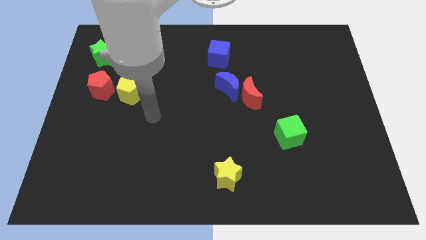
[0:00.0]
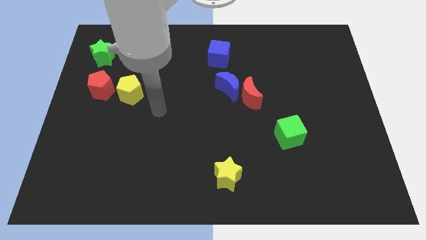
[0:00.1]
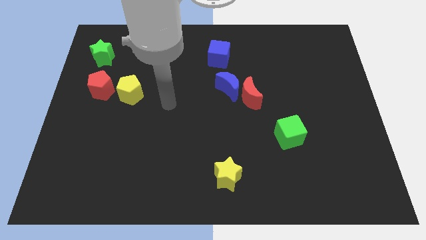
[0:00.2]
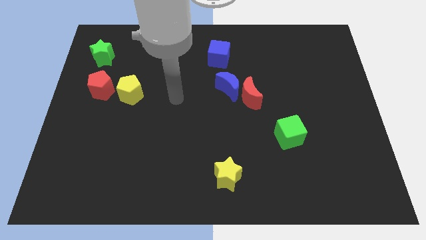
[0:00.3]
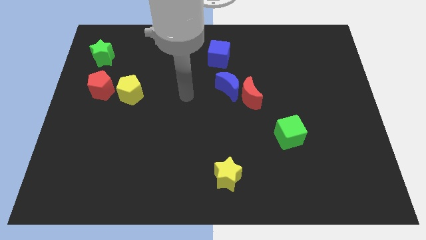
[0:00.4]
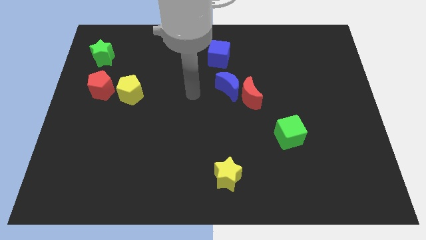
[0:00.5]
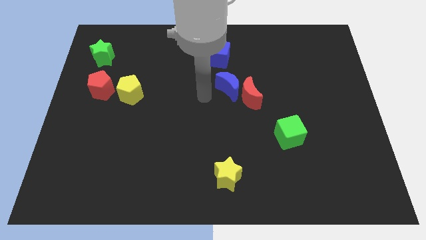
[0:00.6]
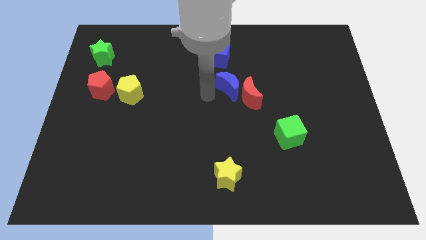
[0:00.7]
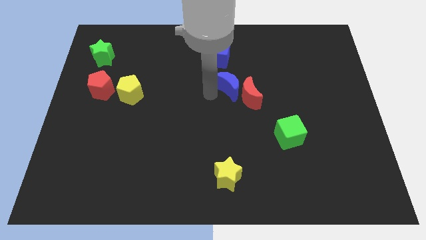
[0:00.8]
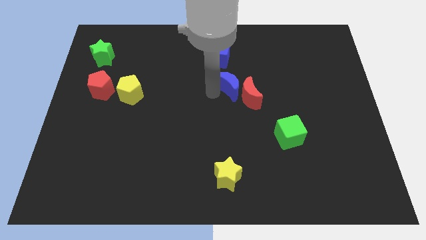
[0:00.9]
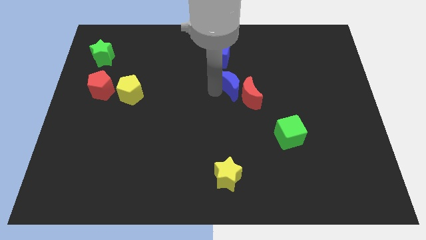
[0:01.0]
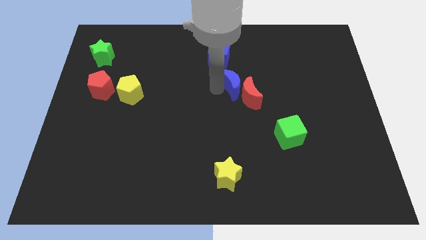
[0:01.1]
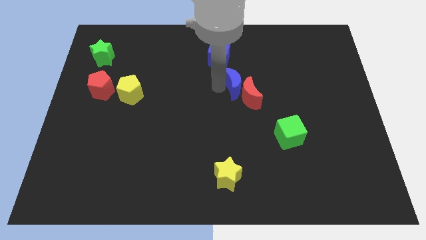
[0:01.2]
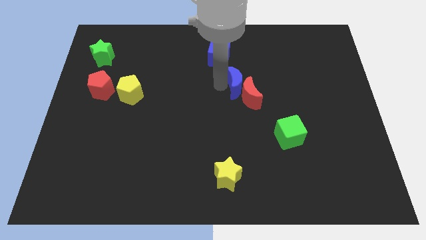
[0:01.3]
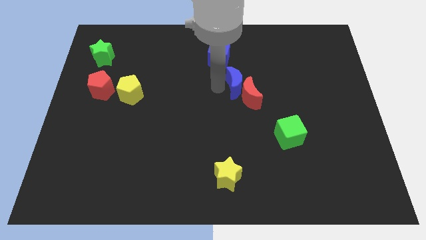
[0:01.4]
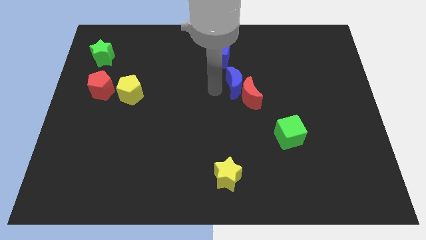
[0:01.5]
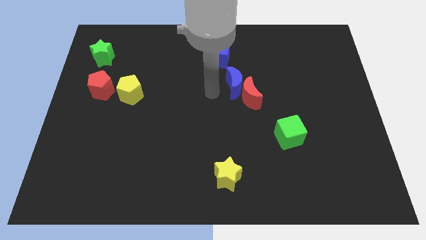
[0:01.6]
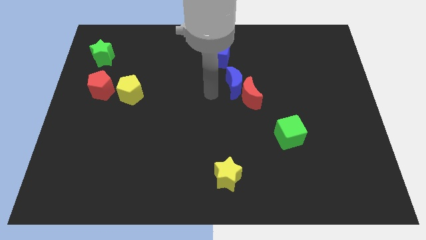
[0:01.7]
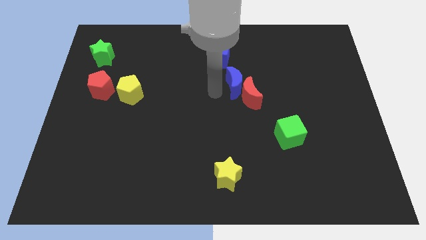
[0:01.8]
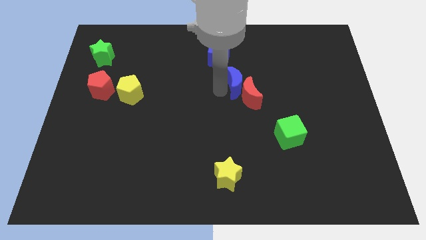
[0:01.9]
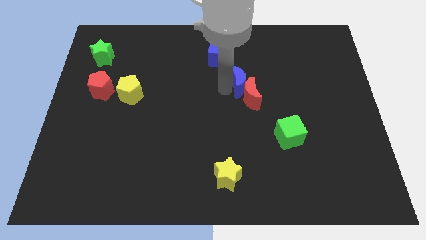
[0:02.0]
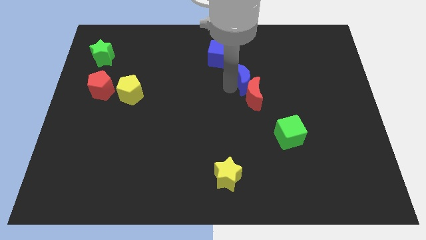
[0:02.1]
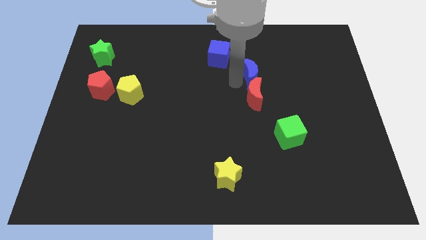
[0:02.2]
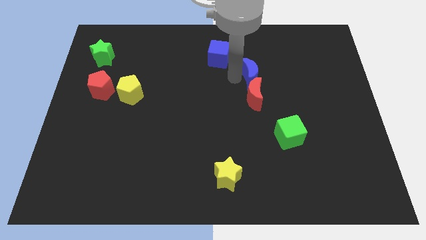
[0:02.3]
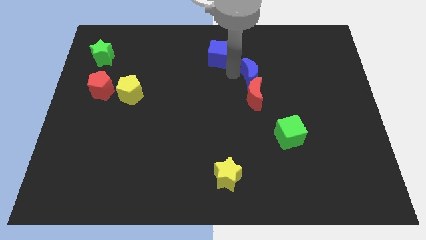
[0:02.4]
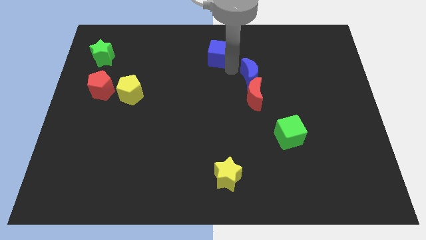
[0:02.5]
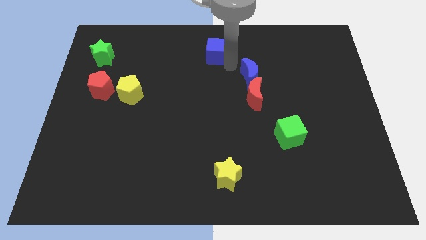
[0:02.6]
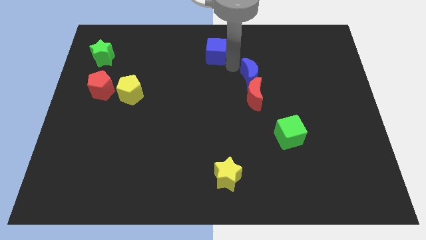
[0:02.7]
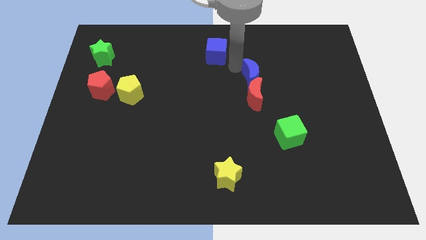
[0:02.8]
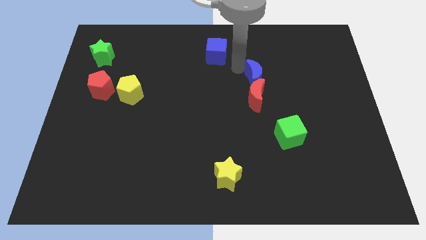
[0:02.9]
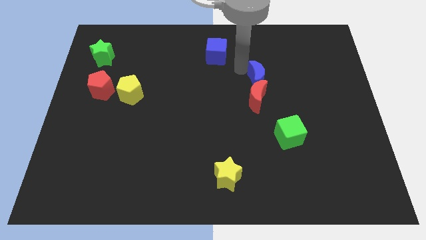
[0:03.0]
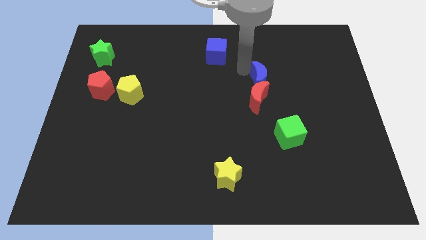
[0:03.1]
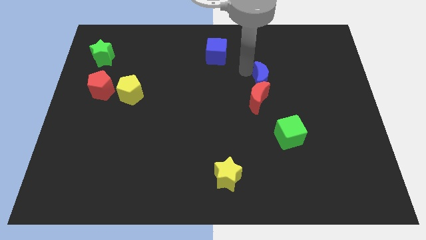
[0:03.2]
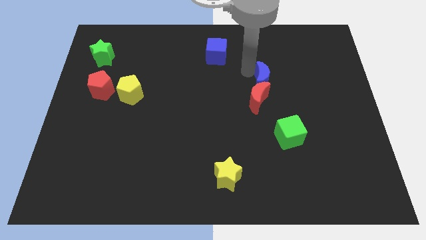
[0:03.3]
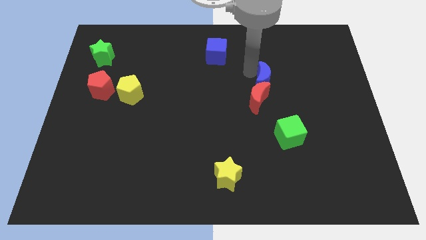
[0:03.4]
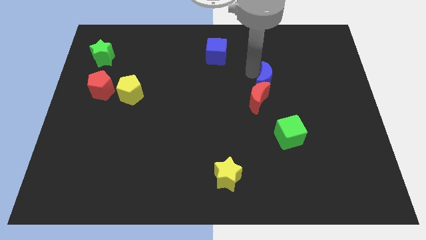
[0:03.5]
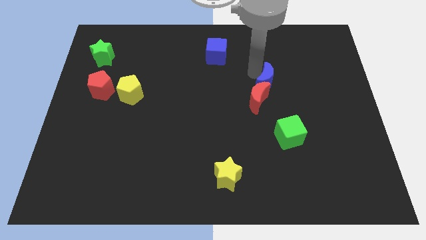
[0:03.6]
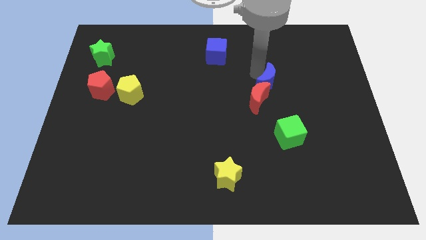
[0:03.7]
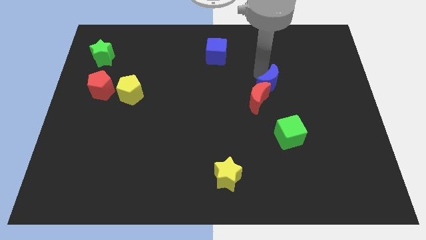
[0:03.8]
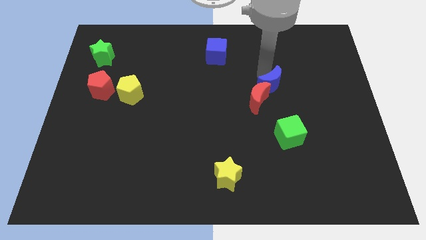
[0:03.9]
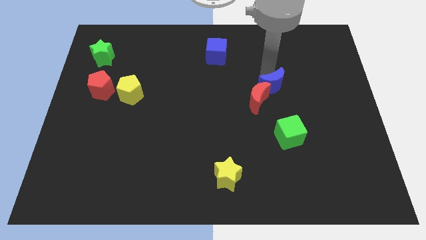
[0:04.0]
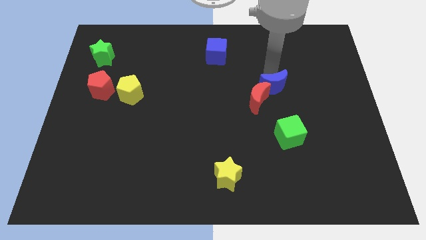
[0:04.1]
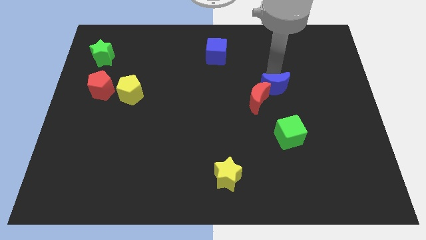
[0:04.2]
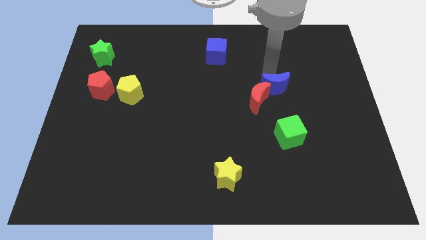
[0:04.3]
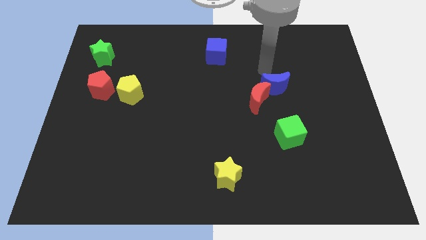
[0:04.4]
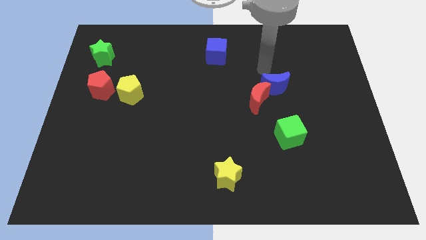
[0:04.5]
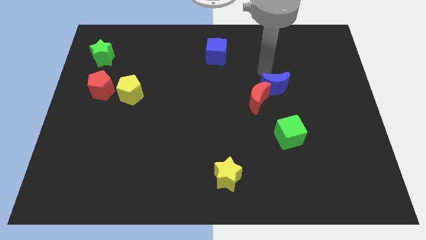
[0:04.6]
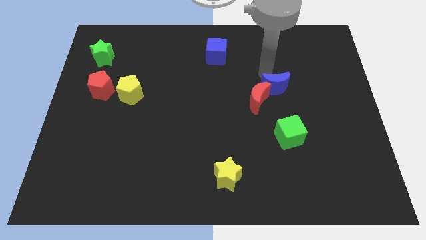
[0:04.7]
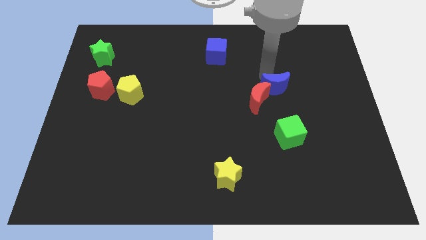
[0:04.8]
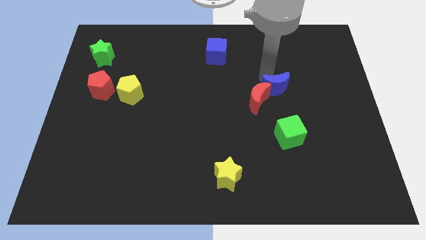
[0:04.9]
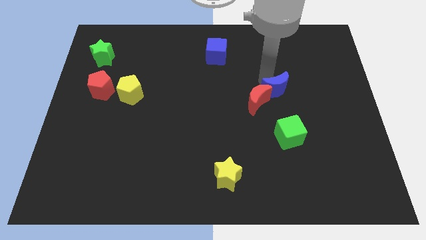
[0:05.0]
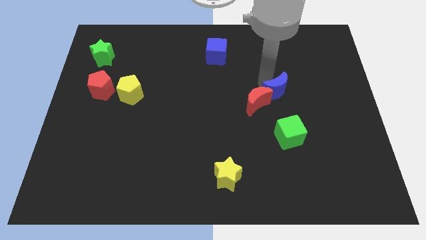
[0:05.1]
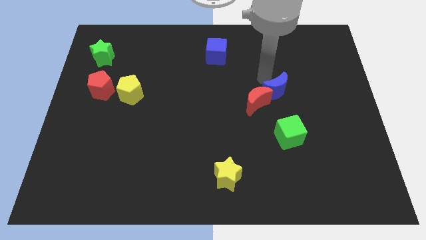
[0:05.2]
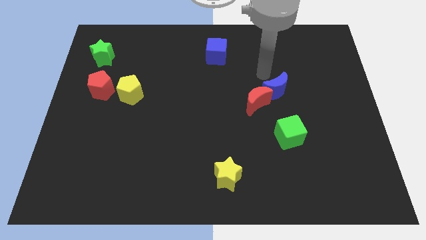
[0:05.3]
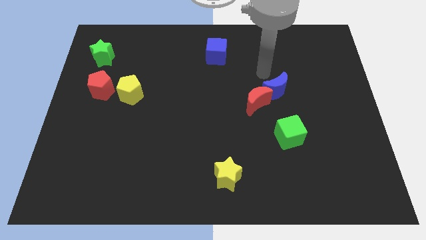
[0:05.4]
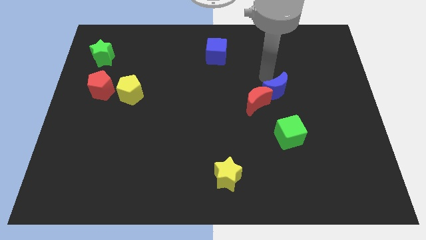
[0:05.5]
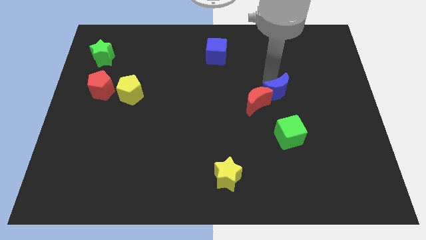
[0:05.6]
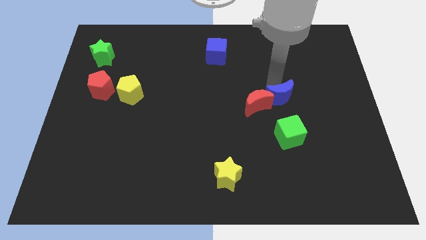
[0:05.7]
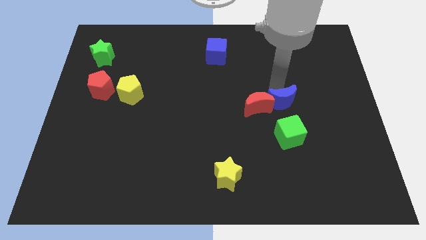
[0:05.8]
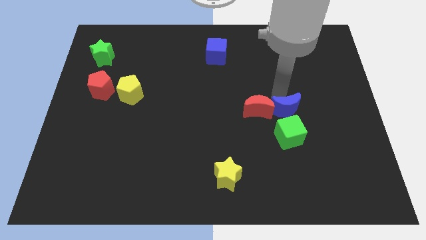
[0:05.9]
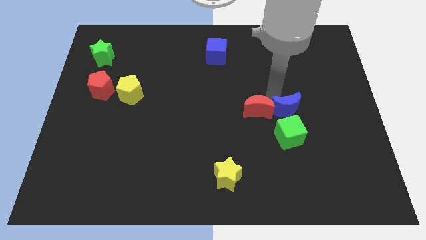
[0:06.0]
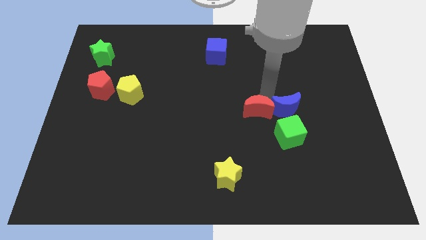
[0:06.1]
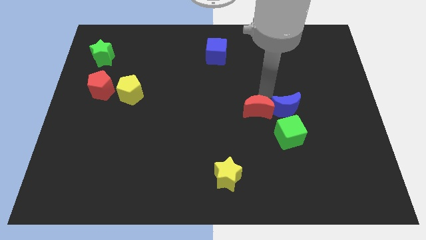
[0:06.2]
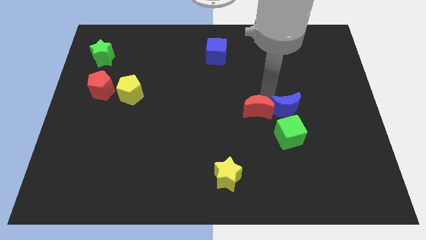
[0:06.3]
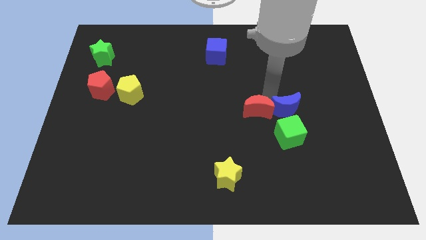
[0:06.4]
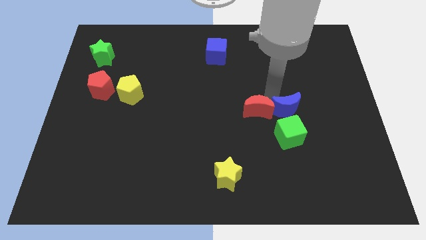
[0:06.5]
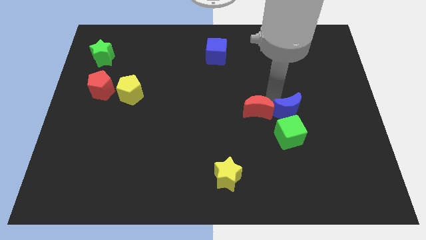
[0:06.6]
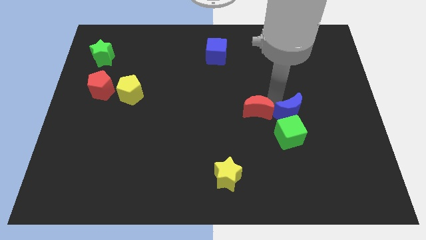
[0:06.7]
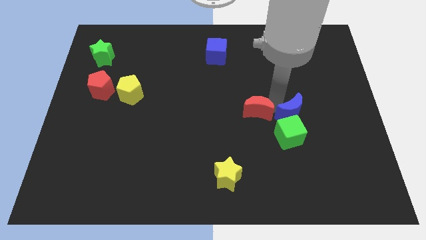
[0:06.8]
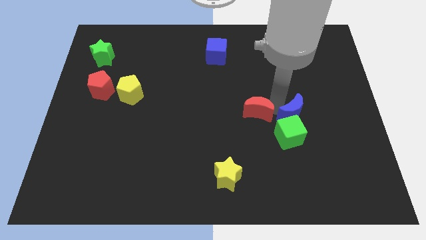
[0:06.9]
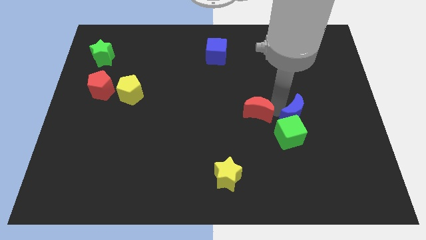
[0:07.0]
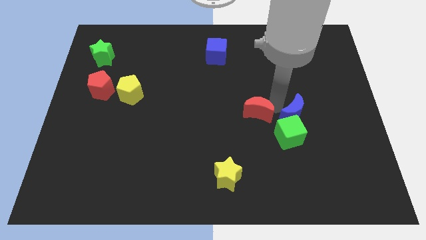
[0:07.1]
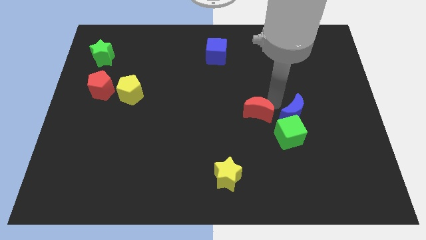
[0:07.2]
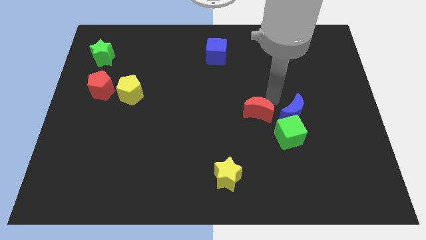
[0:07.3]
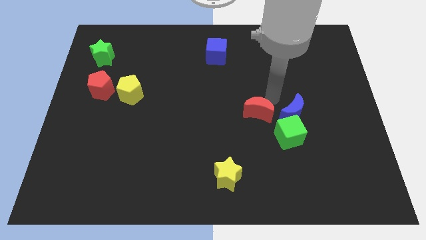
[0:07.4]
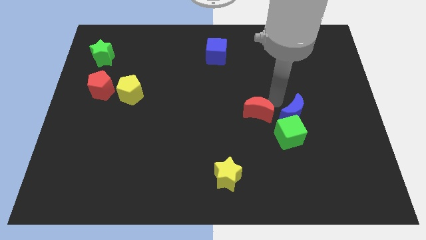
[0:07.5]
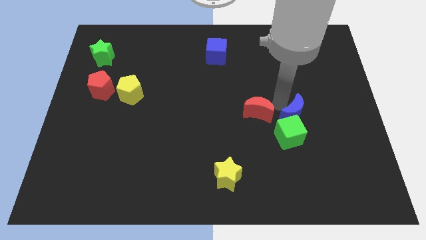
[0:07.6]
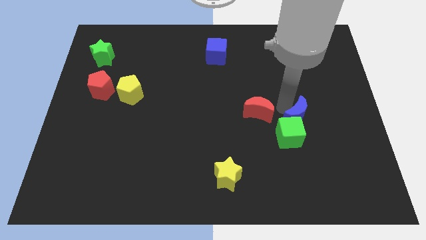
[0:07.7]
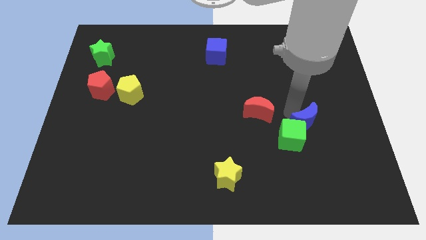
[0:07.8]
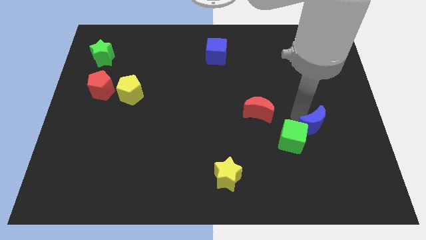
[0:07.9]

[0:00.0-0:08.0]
push the blue moon downwards and right

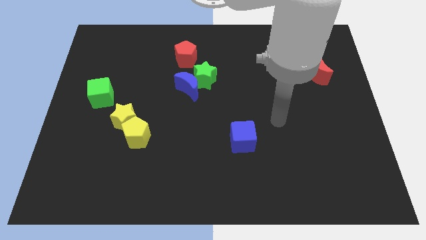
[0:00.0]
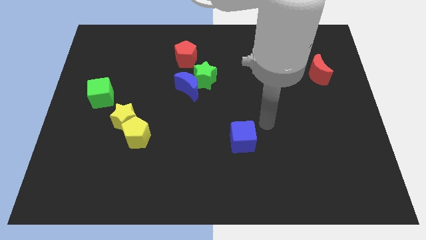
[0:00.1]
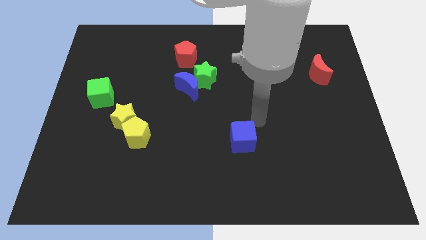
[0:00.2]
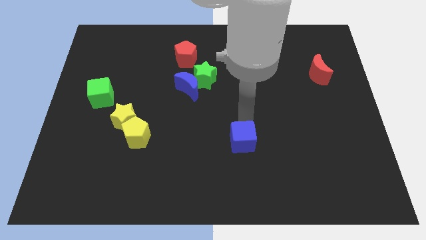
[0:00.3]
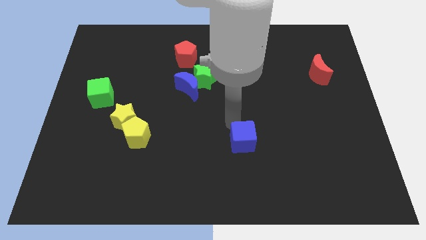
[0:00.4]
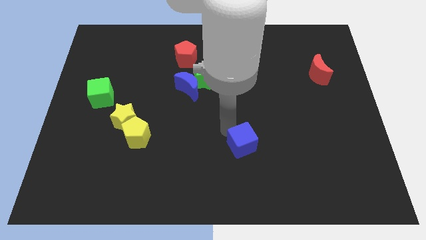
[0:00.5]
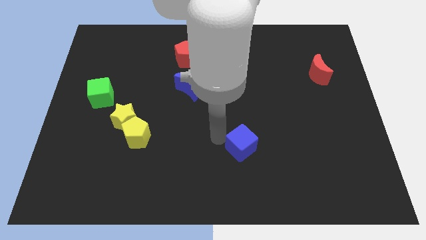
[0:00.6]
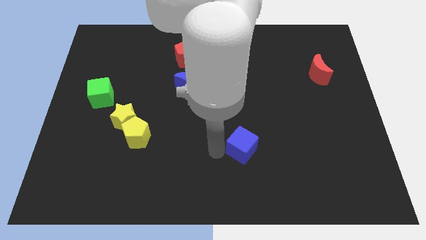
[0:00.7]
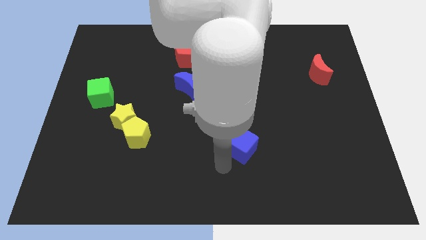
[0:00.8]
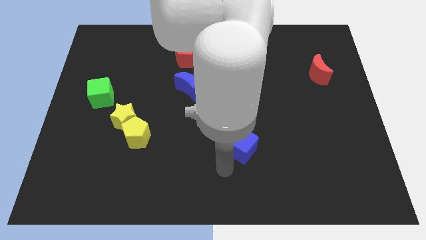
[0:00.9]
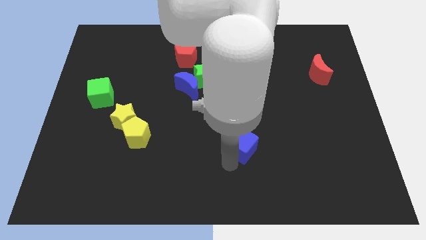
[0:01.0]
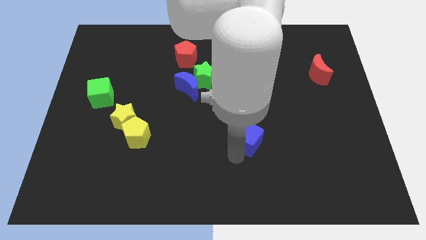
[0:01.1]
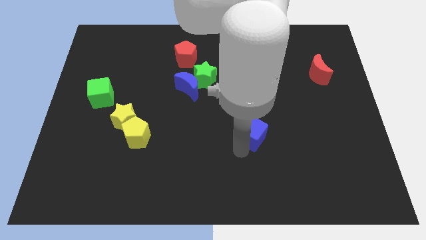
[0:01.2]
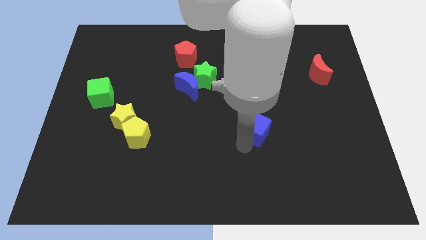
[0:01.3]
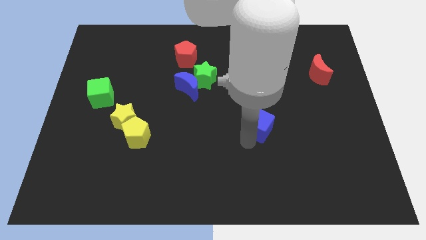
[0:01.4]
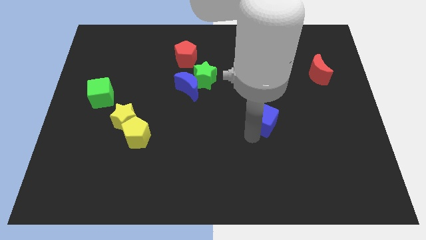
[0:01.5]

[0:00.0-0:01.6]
slightly slide the blue cube diagonally upwards and right
